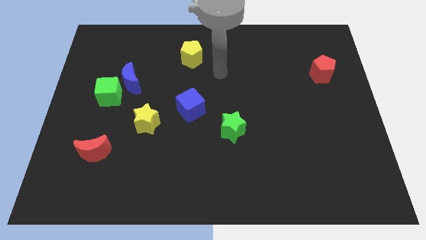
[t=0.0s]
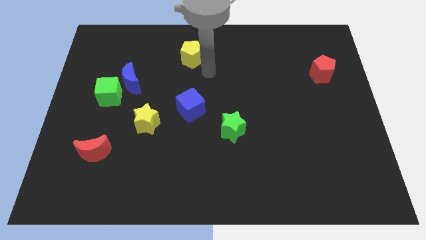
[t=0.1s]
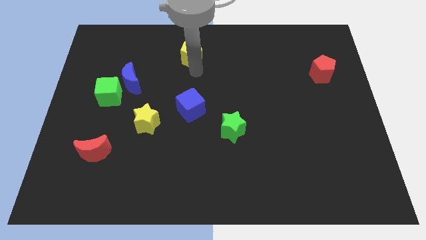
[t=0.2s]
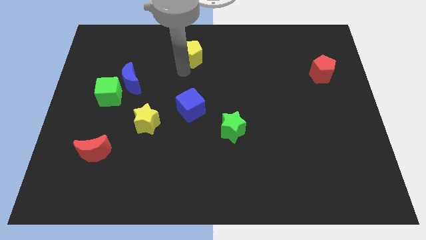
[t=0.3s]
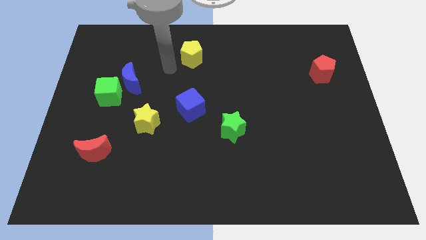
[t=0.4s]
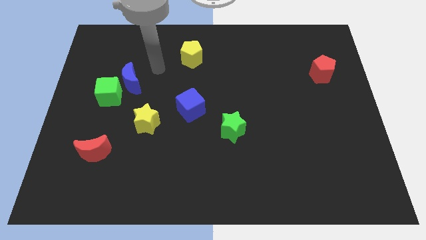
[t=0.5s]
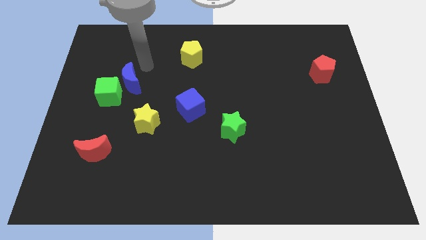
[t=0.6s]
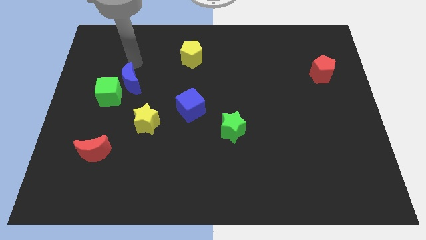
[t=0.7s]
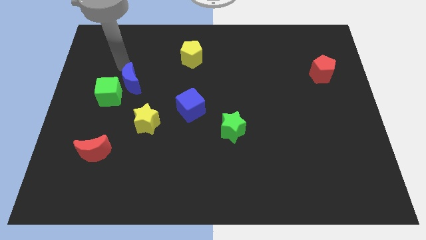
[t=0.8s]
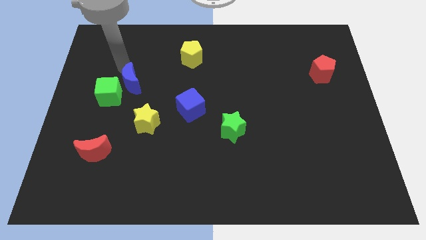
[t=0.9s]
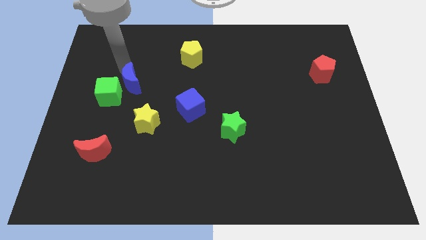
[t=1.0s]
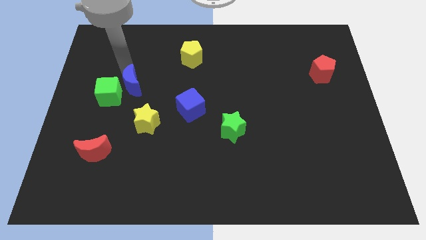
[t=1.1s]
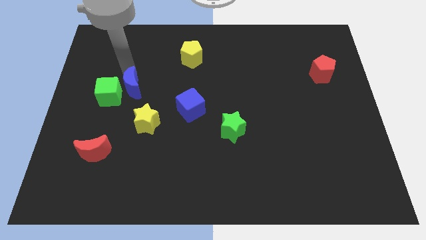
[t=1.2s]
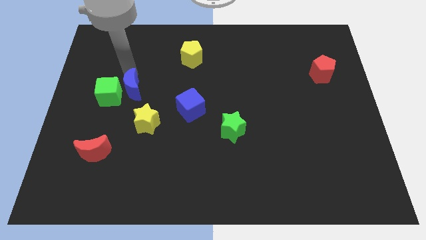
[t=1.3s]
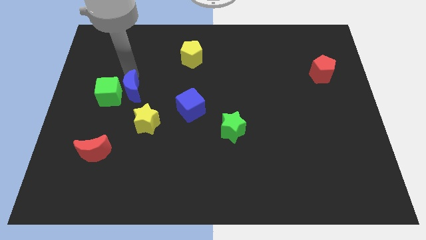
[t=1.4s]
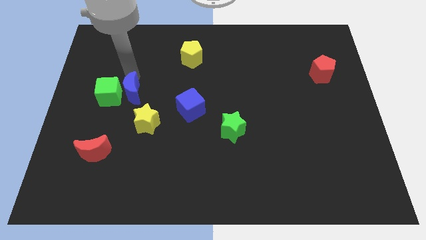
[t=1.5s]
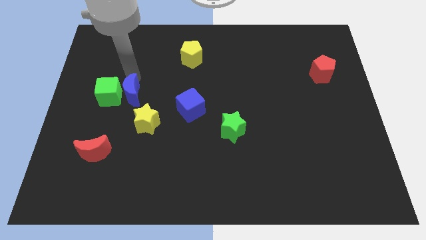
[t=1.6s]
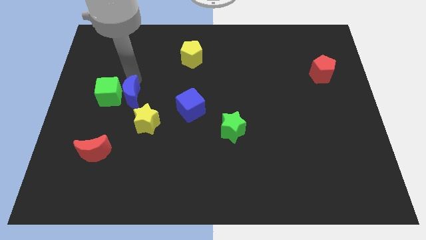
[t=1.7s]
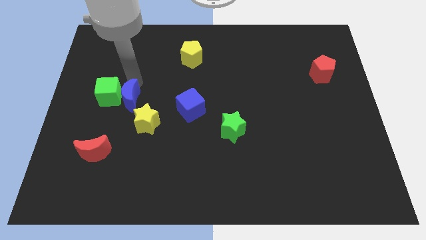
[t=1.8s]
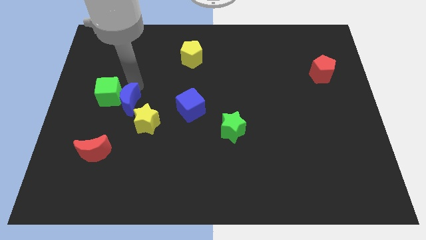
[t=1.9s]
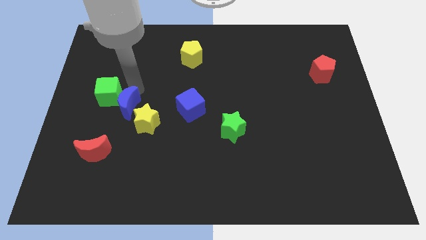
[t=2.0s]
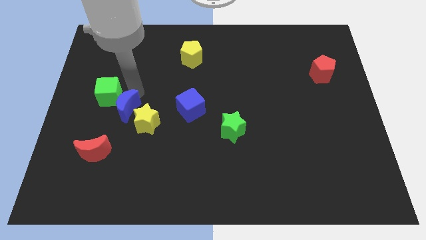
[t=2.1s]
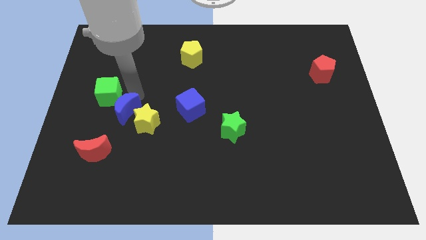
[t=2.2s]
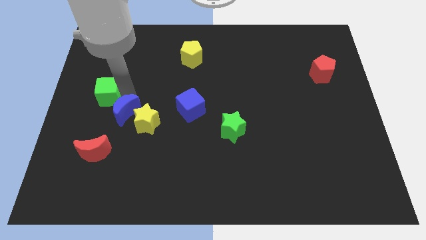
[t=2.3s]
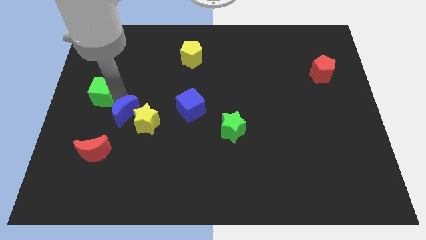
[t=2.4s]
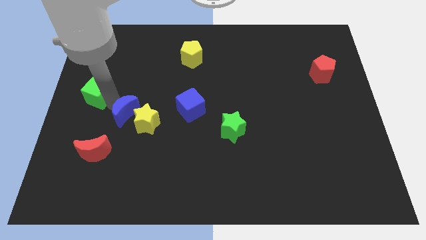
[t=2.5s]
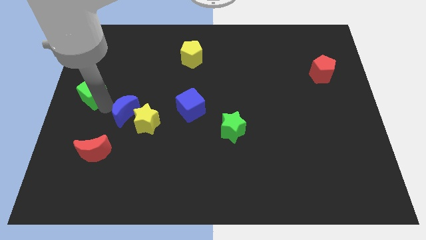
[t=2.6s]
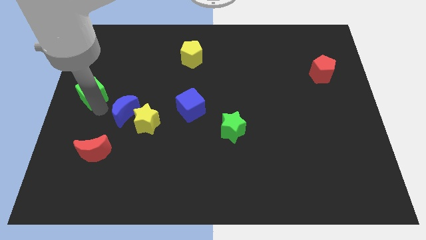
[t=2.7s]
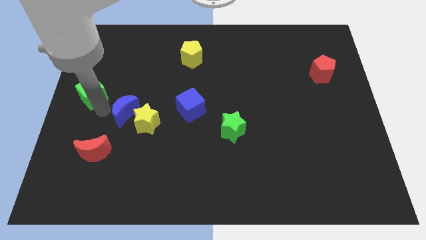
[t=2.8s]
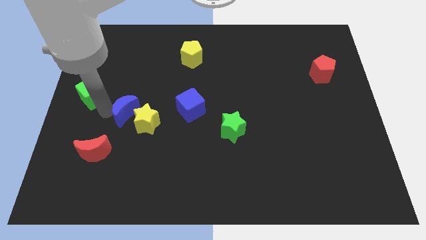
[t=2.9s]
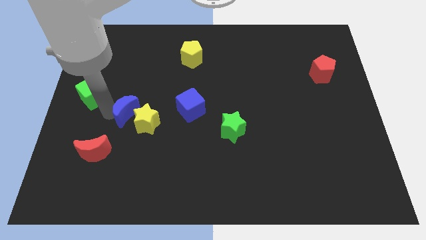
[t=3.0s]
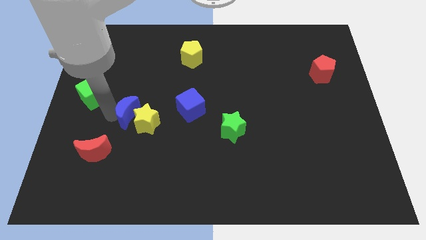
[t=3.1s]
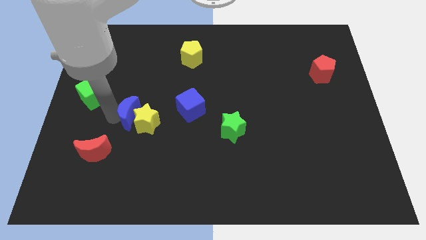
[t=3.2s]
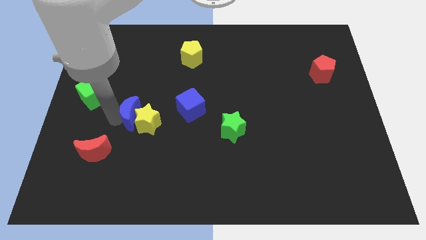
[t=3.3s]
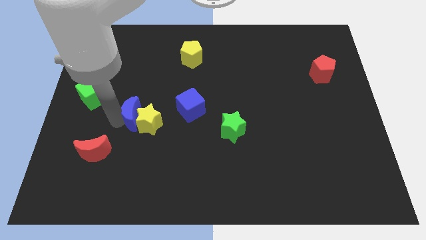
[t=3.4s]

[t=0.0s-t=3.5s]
slightly push the blue moon down and right diagonally

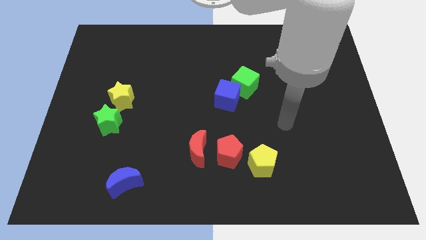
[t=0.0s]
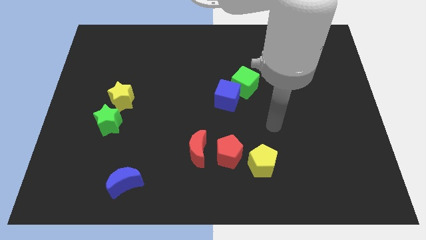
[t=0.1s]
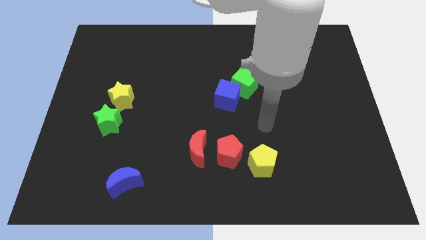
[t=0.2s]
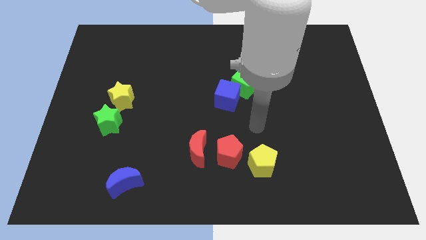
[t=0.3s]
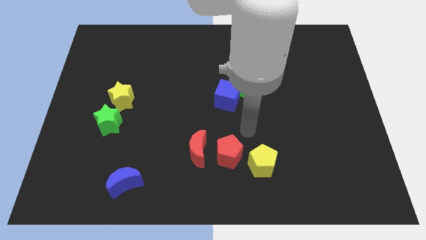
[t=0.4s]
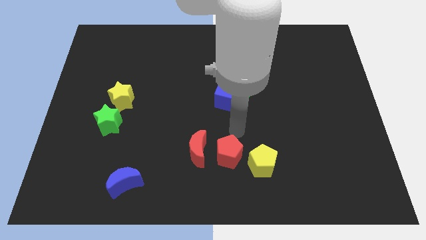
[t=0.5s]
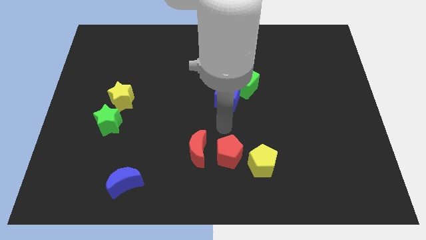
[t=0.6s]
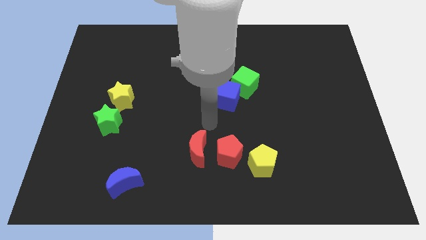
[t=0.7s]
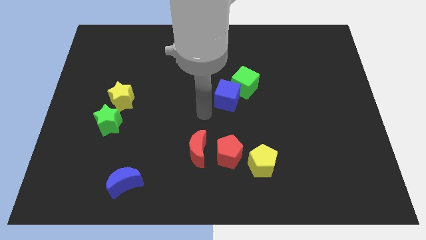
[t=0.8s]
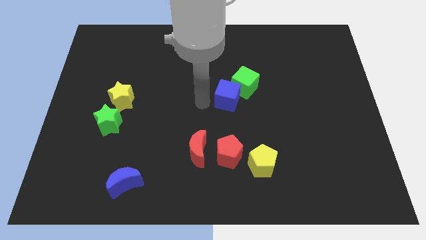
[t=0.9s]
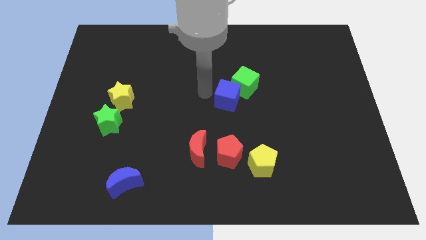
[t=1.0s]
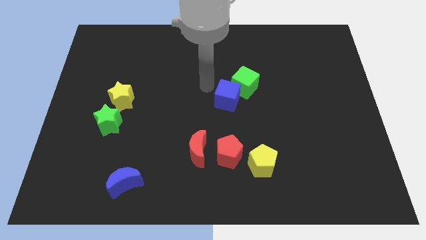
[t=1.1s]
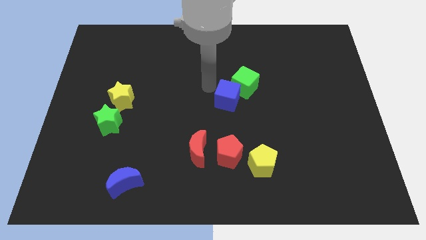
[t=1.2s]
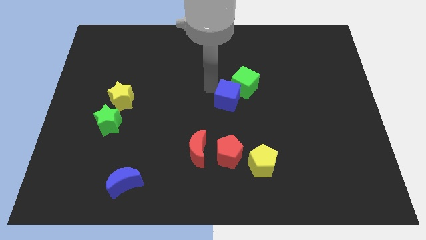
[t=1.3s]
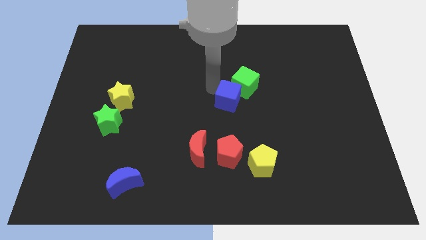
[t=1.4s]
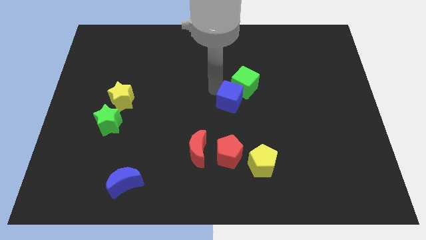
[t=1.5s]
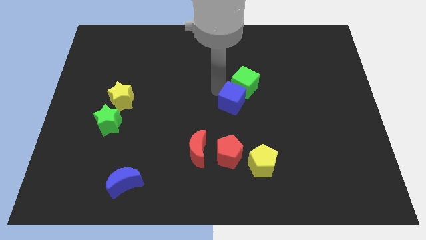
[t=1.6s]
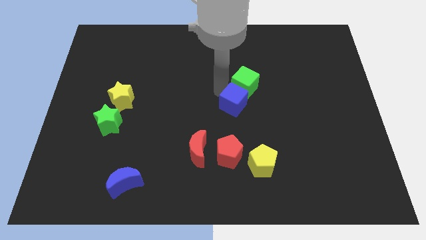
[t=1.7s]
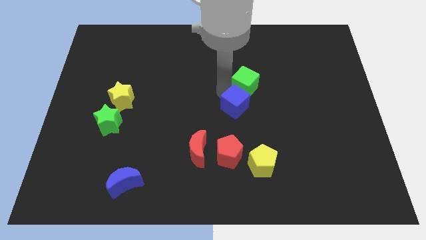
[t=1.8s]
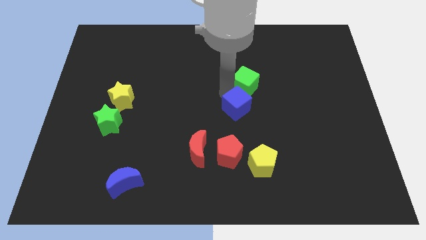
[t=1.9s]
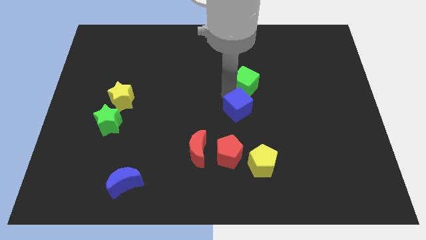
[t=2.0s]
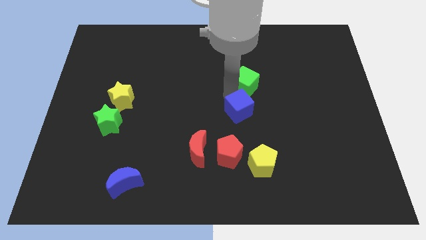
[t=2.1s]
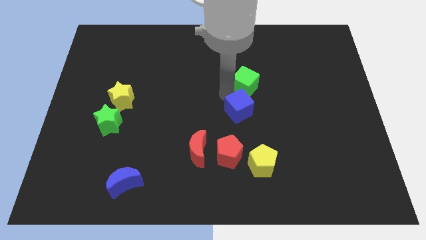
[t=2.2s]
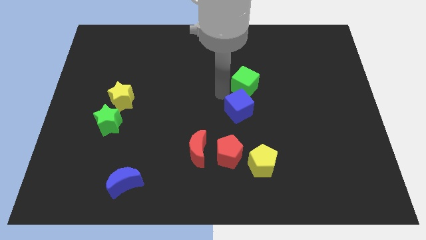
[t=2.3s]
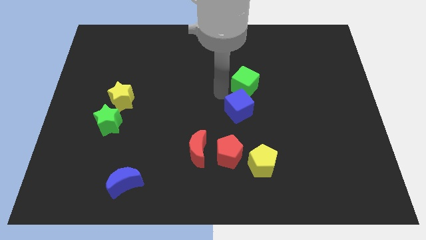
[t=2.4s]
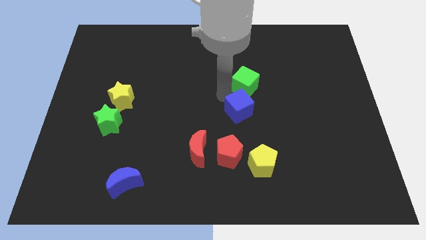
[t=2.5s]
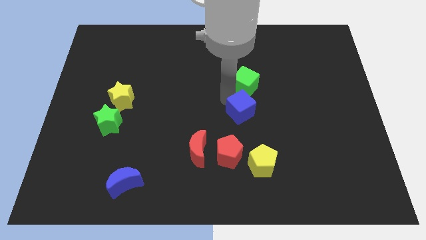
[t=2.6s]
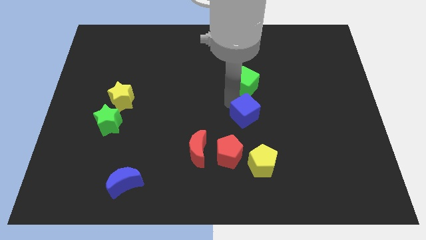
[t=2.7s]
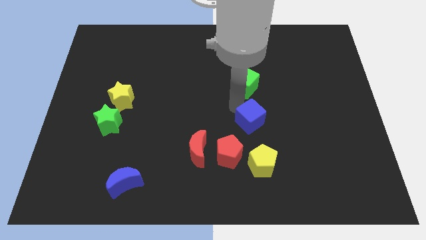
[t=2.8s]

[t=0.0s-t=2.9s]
slide the blue cube diagonally down and right slightly

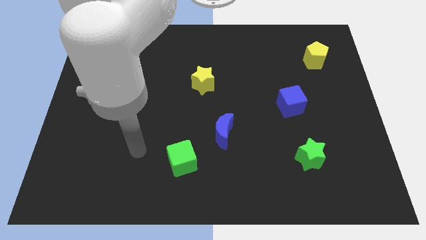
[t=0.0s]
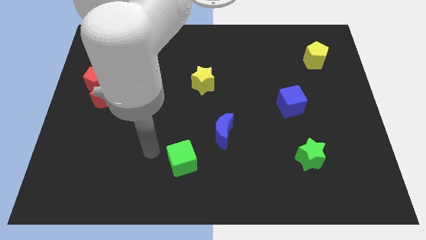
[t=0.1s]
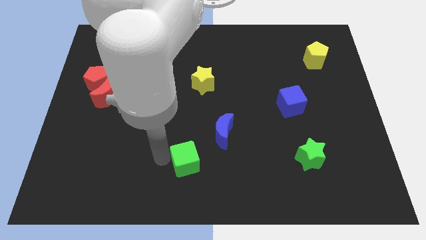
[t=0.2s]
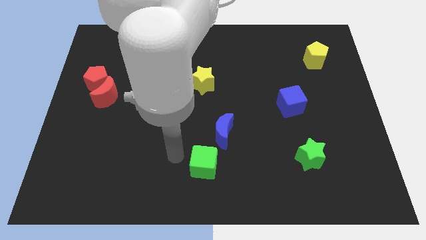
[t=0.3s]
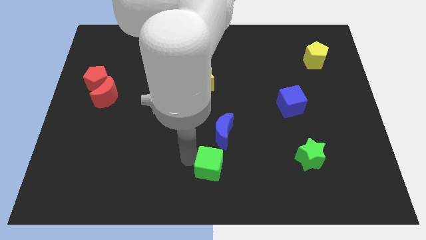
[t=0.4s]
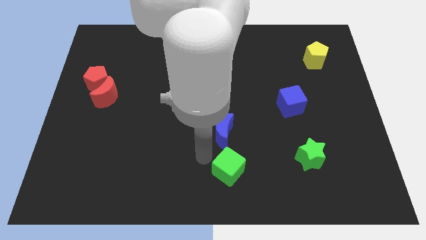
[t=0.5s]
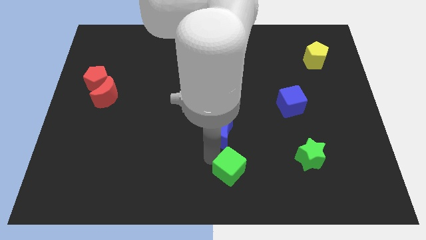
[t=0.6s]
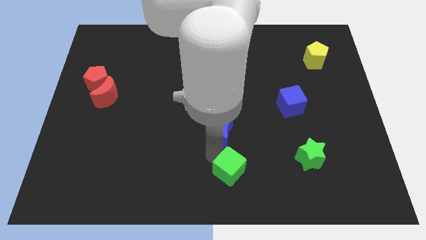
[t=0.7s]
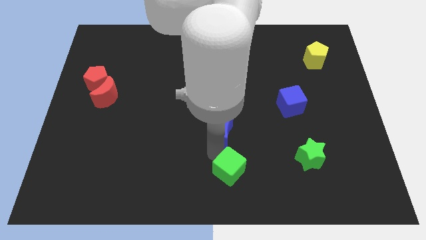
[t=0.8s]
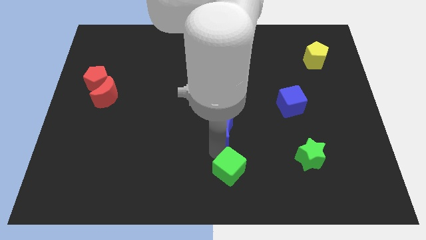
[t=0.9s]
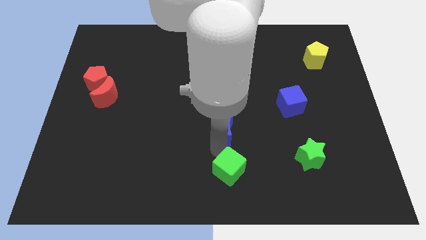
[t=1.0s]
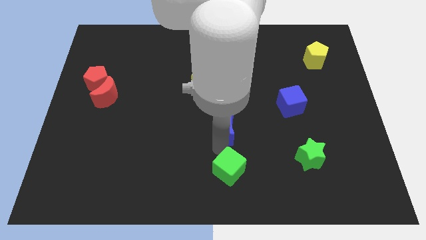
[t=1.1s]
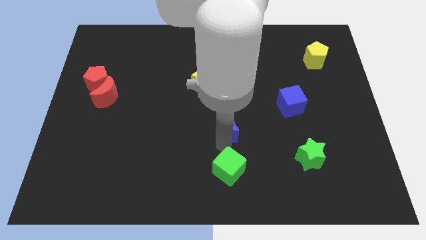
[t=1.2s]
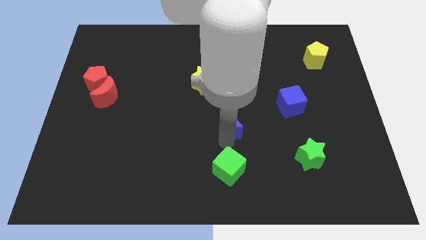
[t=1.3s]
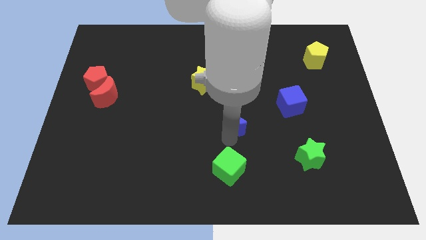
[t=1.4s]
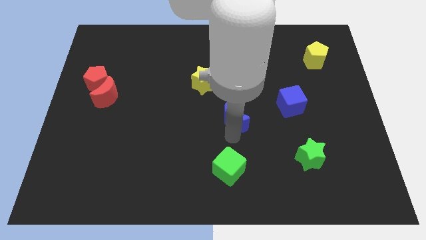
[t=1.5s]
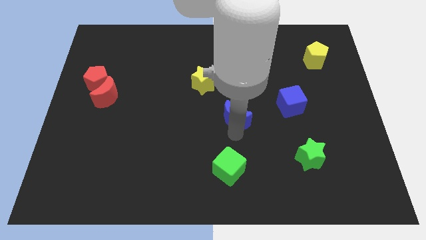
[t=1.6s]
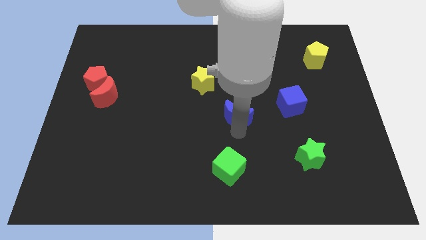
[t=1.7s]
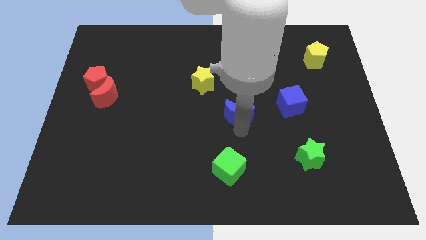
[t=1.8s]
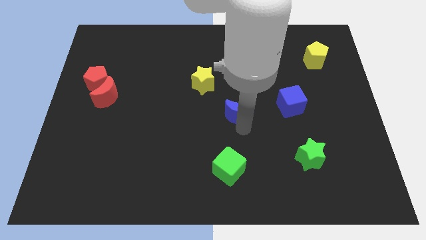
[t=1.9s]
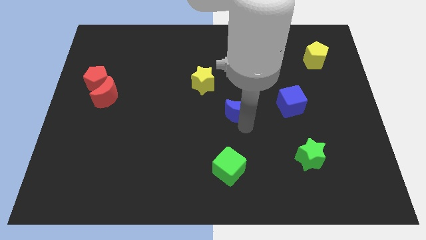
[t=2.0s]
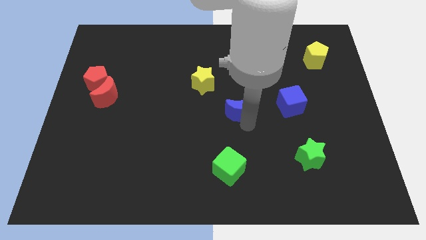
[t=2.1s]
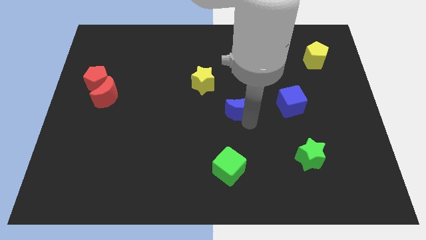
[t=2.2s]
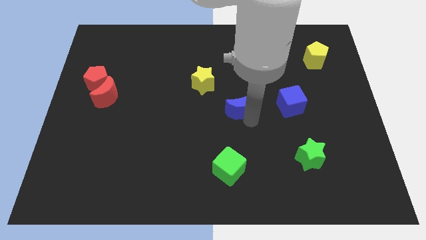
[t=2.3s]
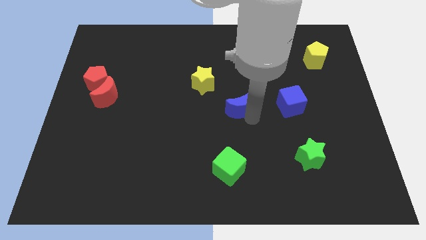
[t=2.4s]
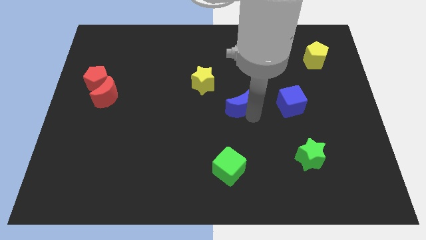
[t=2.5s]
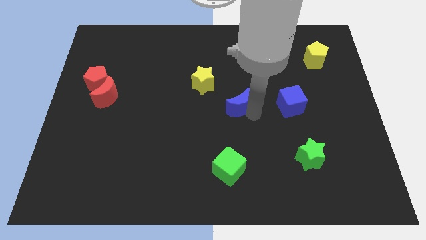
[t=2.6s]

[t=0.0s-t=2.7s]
move the blue moon upwards slightly
